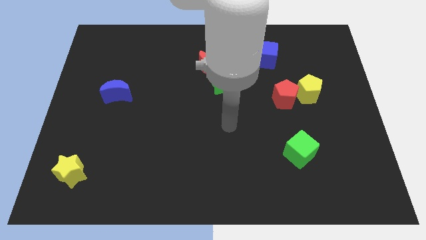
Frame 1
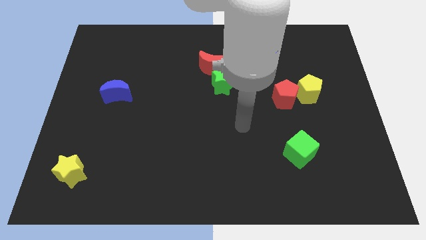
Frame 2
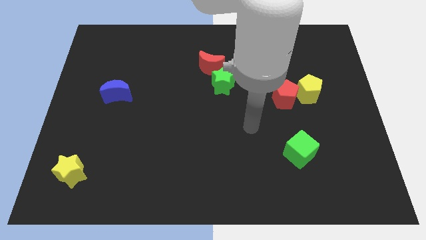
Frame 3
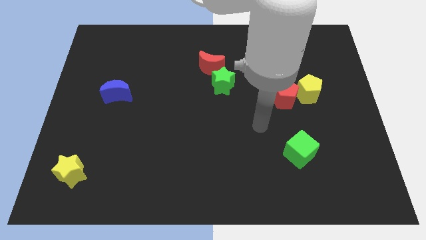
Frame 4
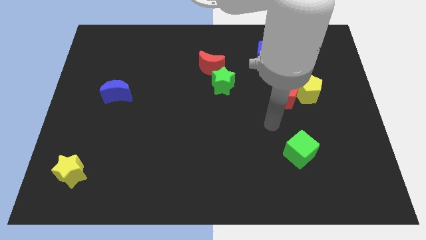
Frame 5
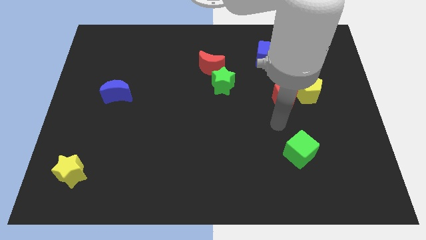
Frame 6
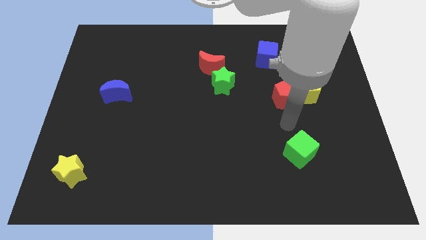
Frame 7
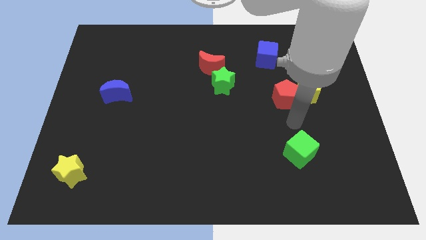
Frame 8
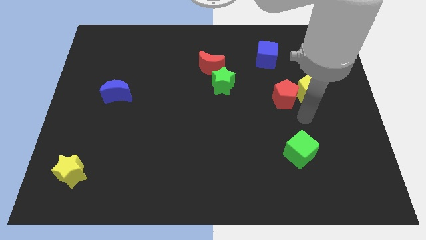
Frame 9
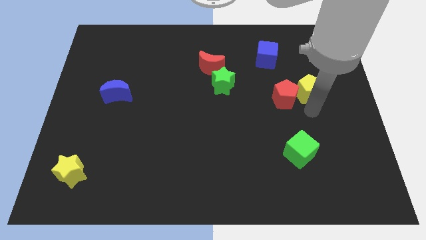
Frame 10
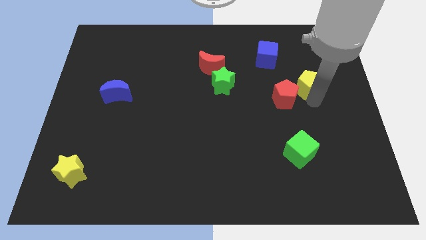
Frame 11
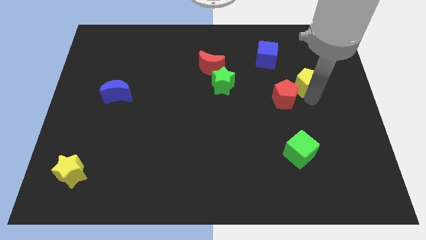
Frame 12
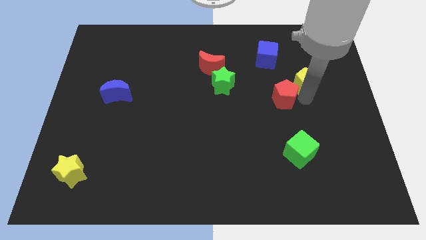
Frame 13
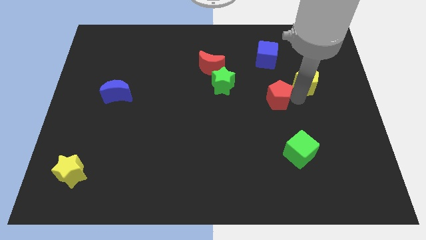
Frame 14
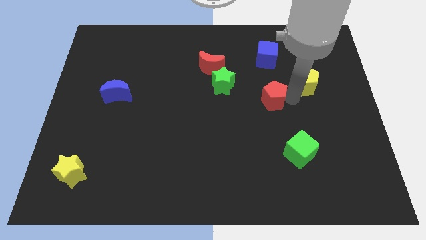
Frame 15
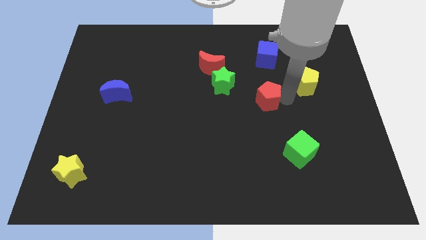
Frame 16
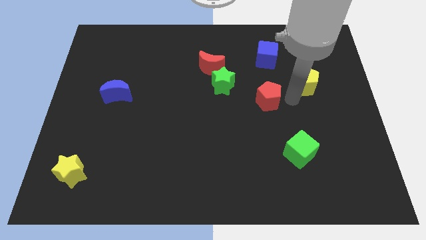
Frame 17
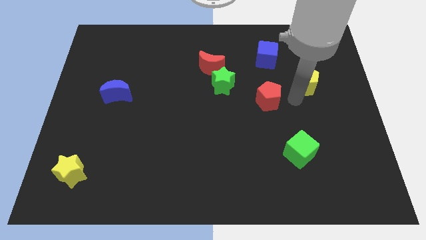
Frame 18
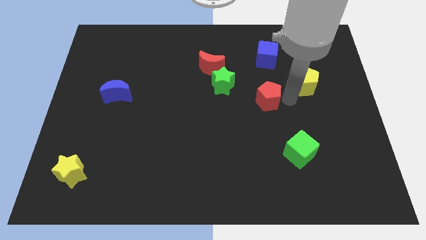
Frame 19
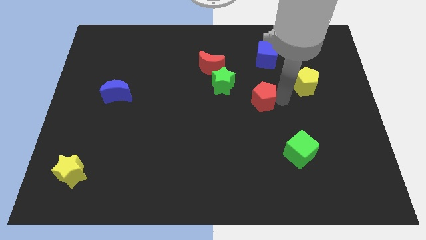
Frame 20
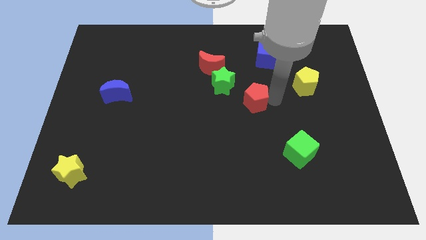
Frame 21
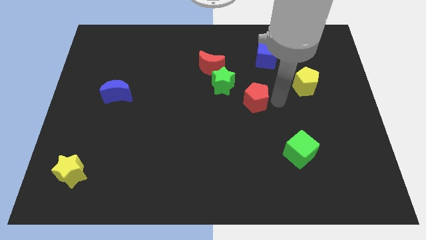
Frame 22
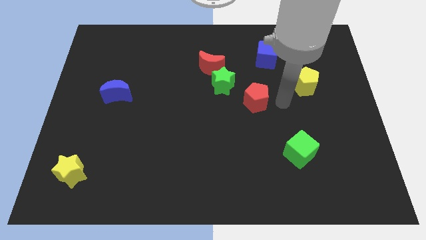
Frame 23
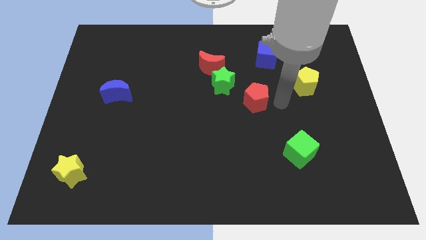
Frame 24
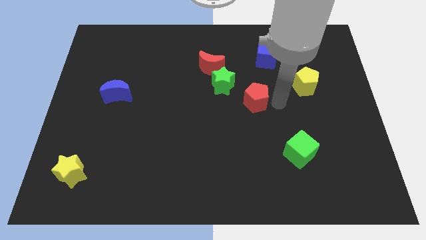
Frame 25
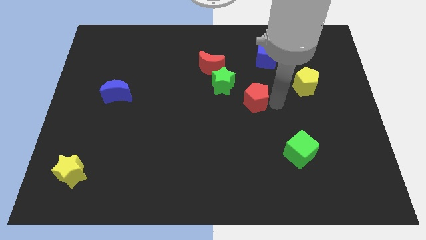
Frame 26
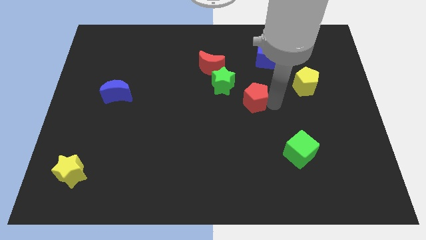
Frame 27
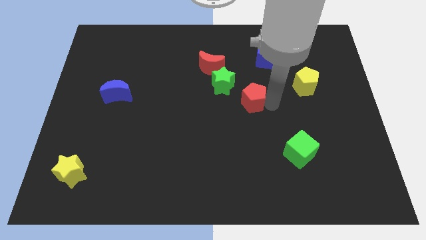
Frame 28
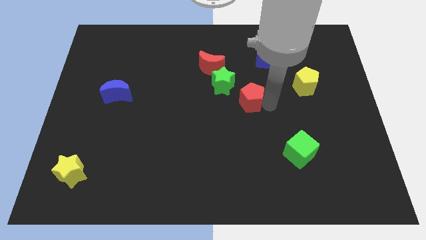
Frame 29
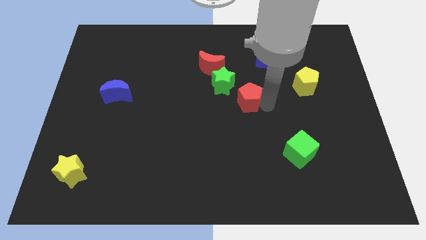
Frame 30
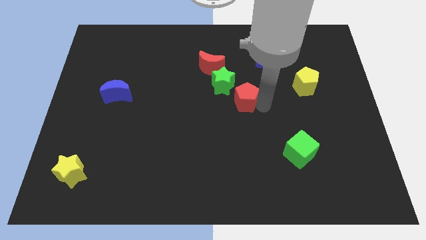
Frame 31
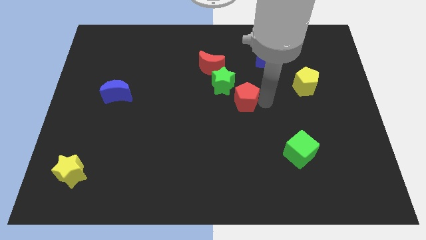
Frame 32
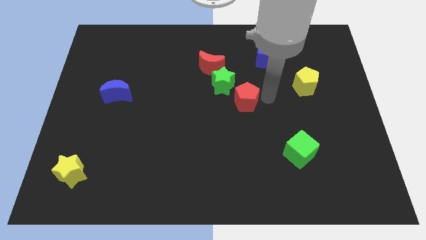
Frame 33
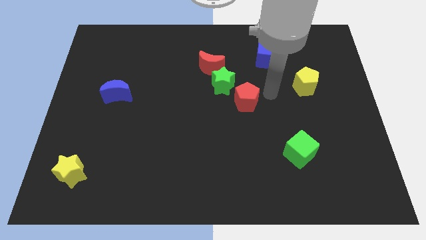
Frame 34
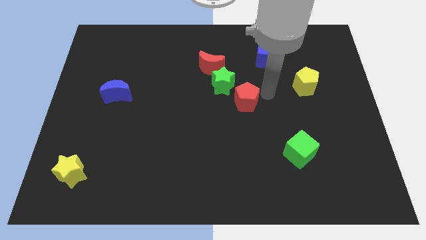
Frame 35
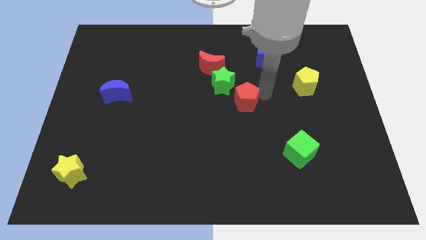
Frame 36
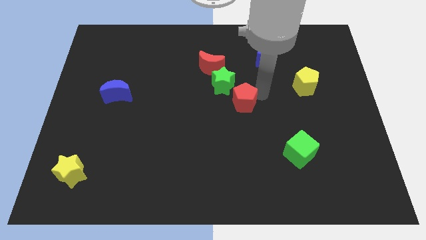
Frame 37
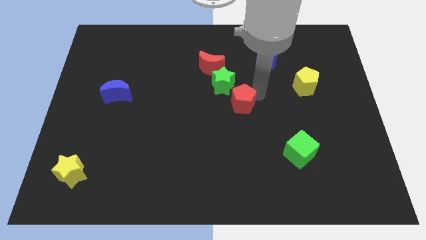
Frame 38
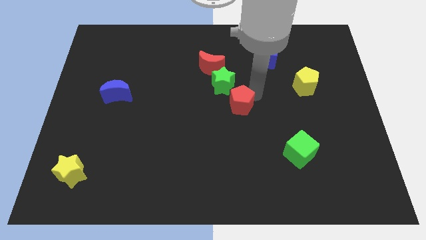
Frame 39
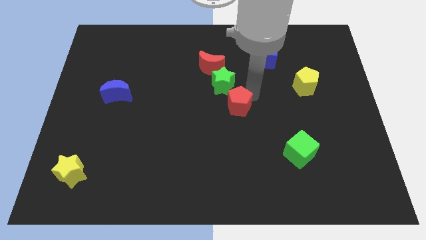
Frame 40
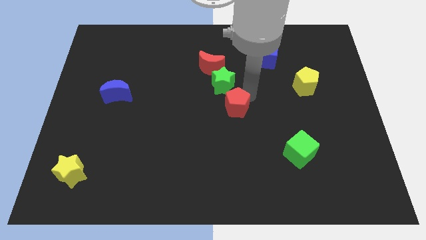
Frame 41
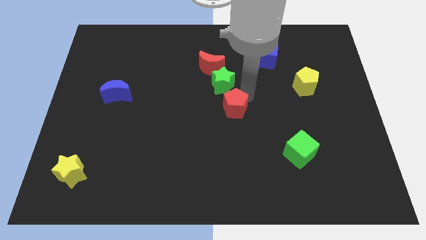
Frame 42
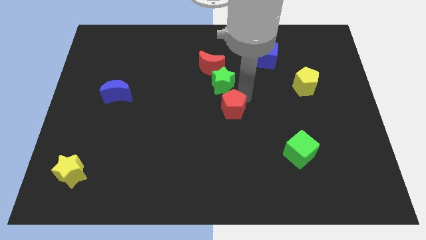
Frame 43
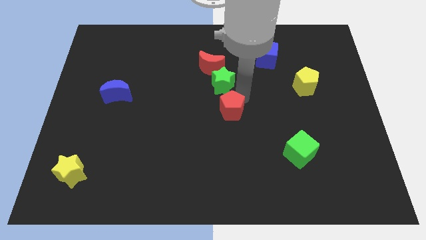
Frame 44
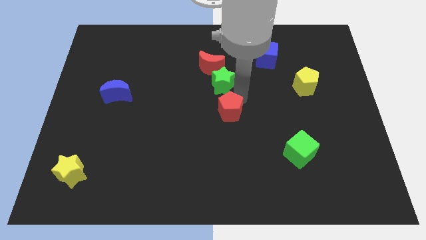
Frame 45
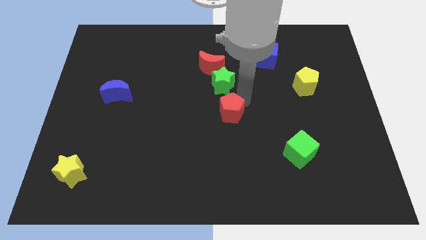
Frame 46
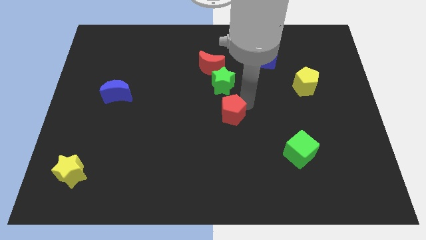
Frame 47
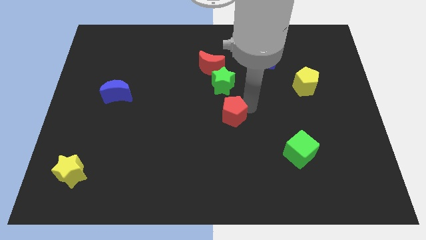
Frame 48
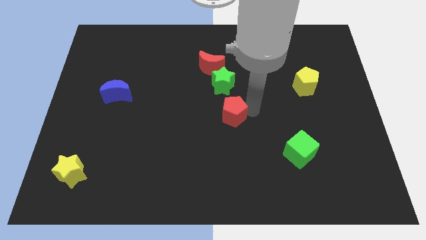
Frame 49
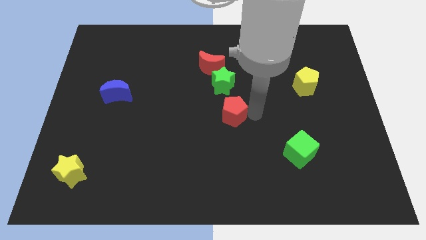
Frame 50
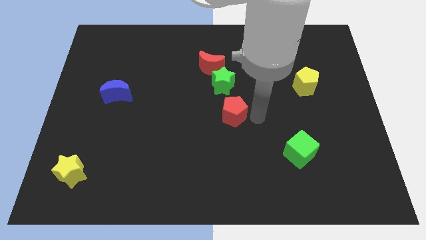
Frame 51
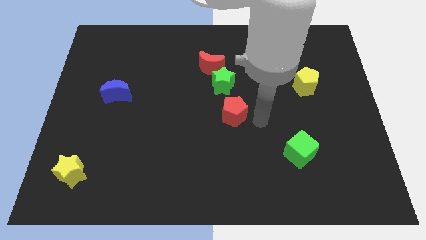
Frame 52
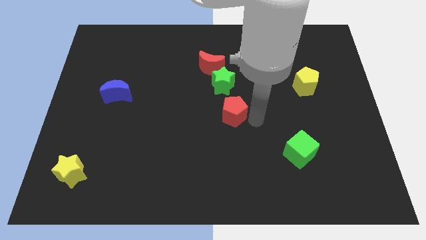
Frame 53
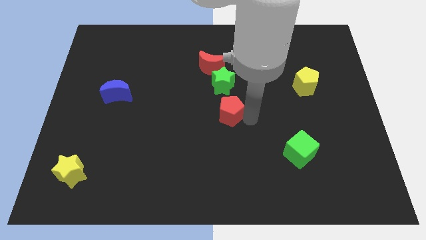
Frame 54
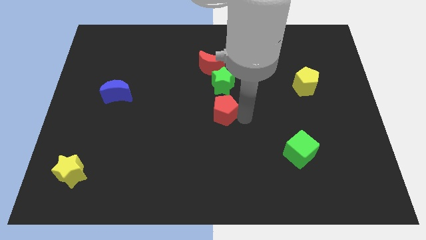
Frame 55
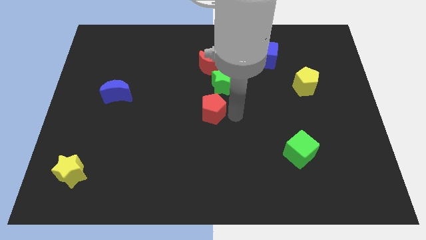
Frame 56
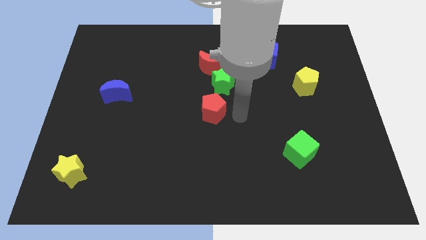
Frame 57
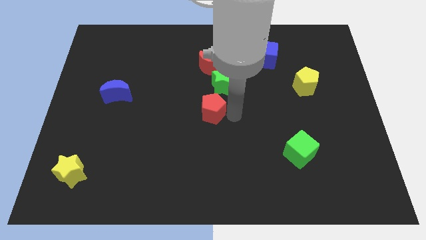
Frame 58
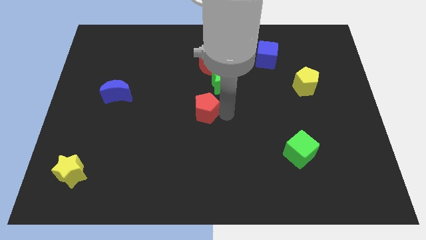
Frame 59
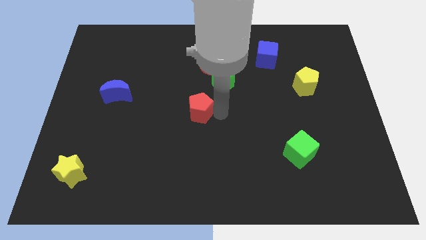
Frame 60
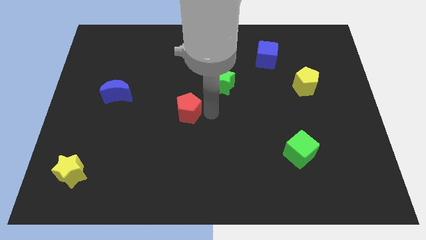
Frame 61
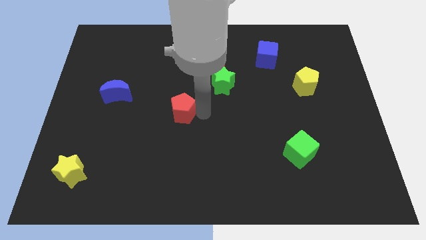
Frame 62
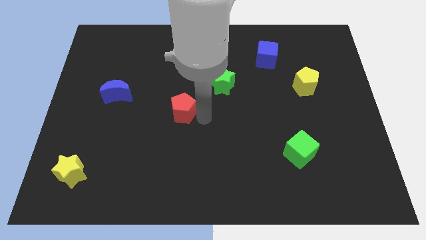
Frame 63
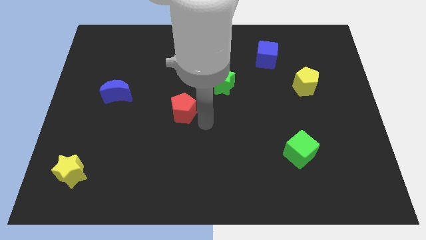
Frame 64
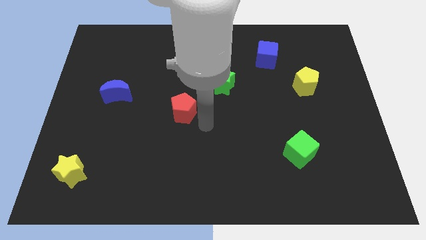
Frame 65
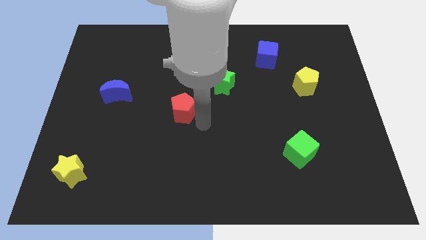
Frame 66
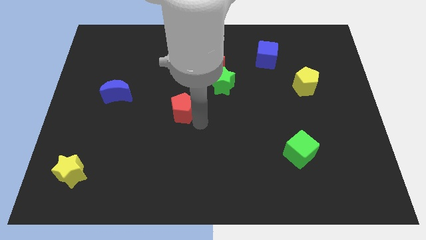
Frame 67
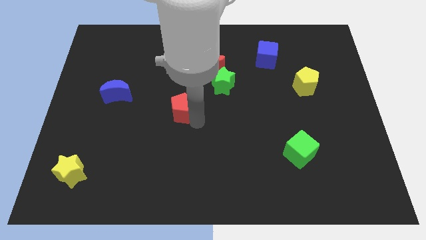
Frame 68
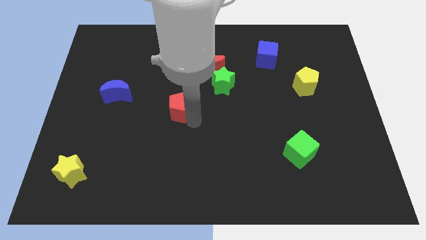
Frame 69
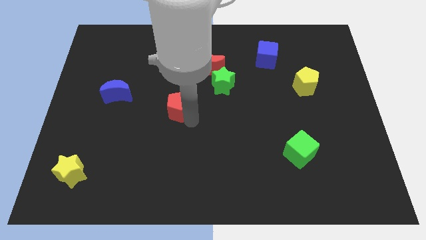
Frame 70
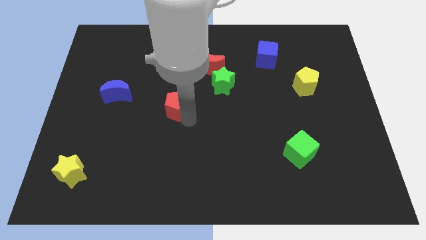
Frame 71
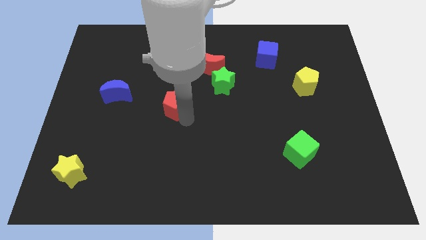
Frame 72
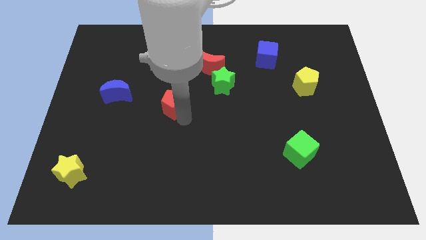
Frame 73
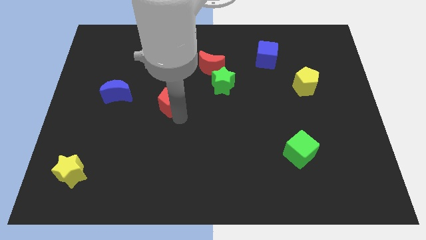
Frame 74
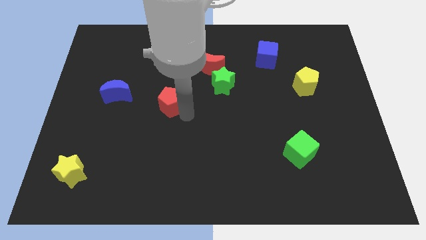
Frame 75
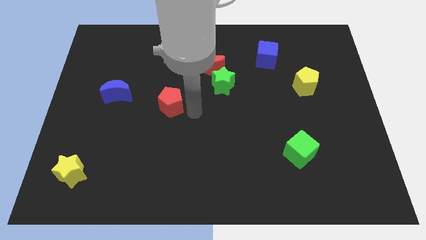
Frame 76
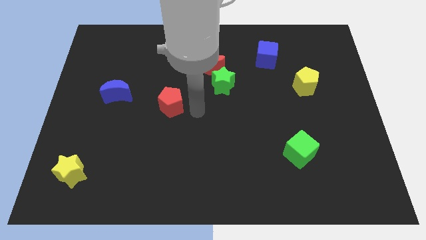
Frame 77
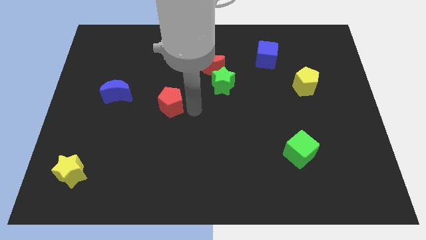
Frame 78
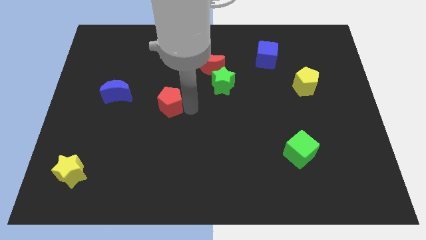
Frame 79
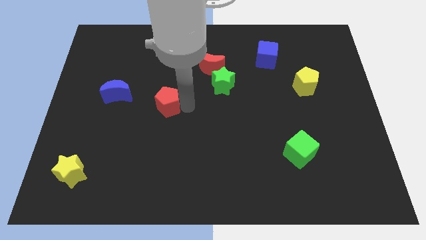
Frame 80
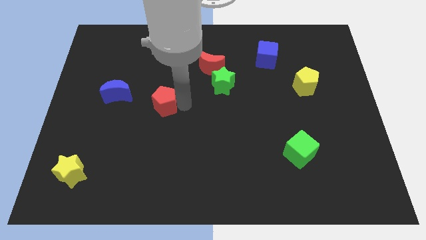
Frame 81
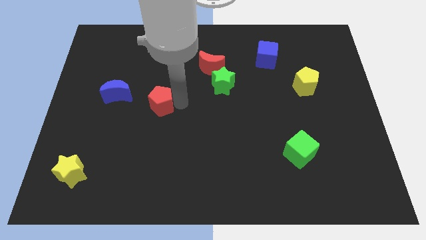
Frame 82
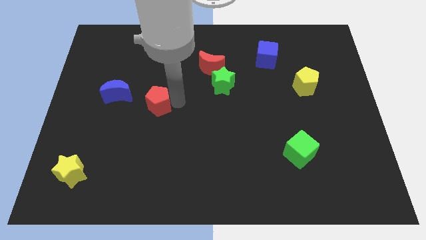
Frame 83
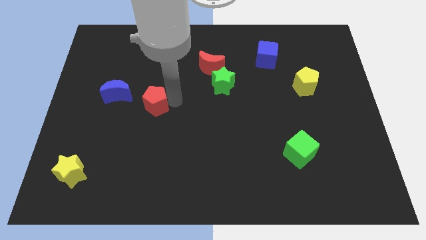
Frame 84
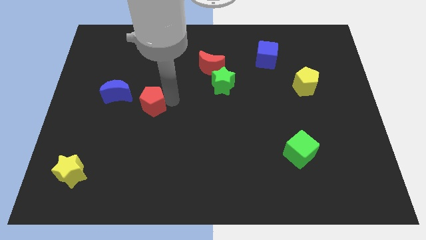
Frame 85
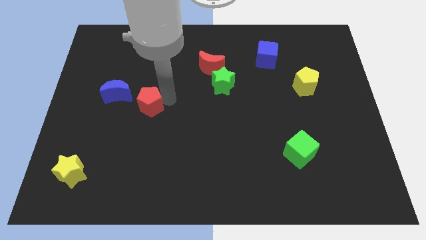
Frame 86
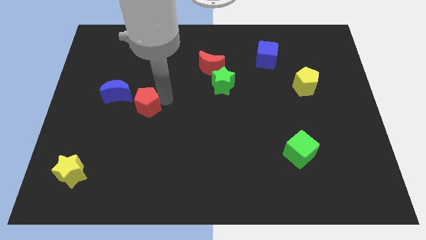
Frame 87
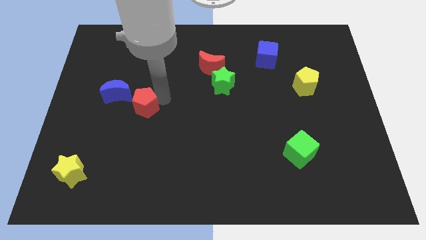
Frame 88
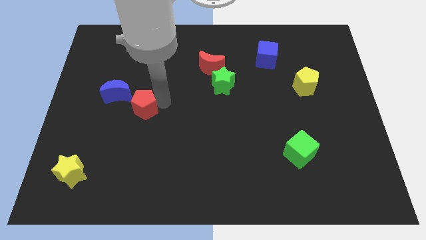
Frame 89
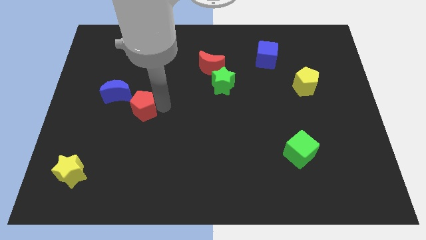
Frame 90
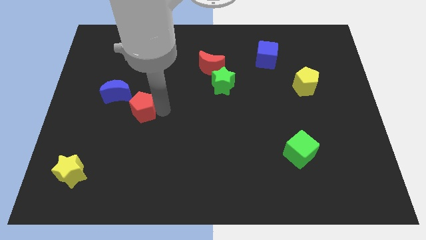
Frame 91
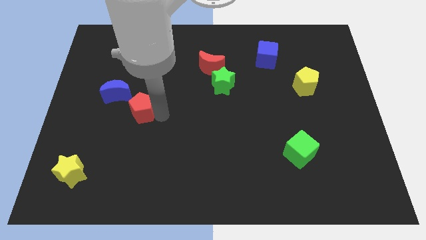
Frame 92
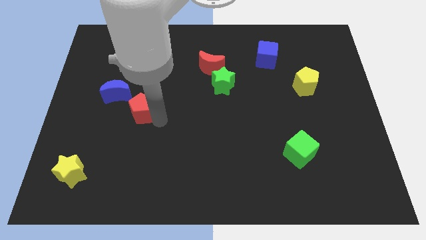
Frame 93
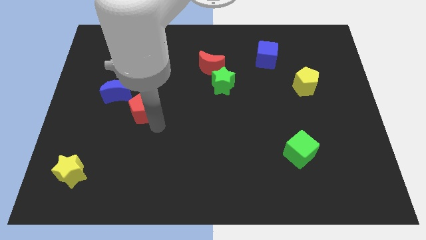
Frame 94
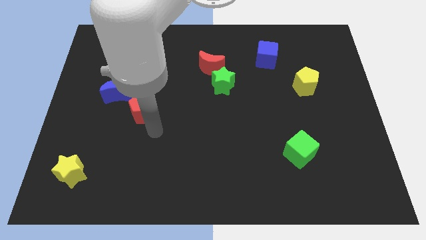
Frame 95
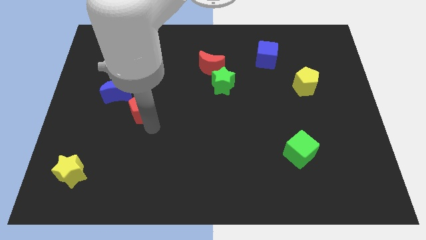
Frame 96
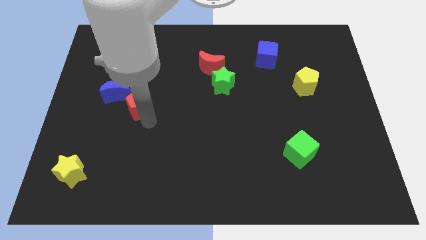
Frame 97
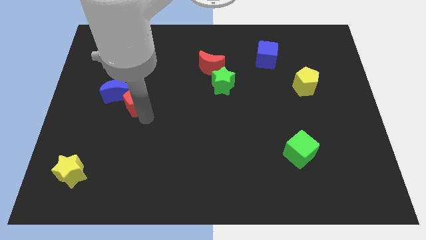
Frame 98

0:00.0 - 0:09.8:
slide the red pentagon towards the blue moon
